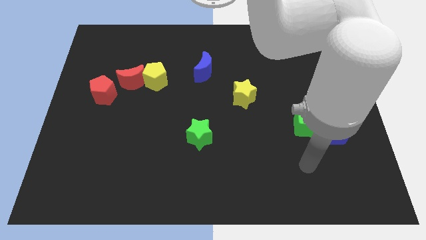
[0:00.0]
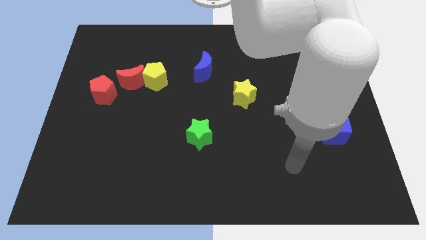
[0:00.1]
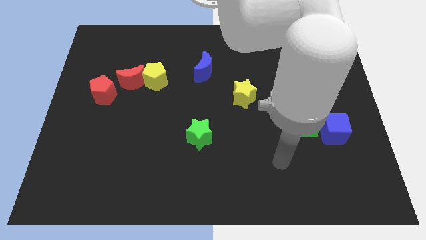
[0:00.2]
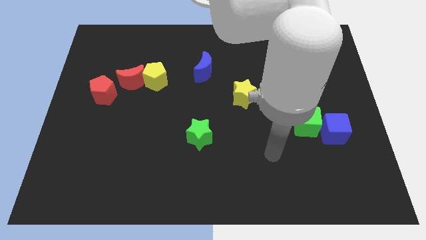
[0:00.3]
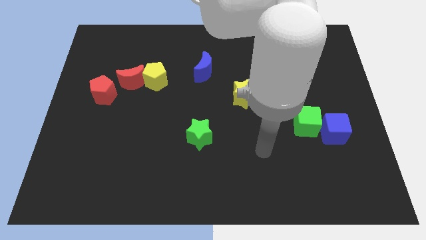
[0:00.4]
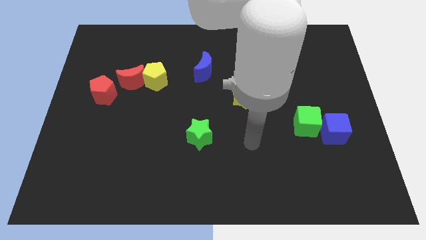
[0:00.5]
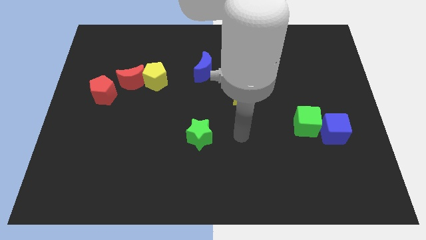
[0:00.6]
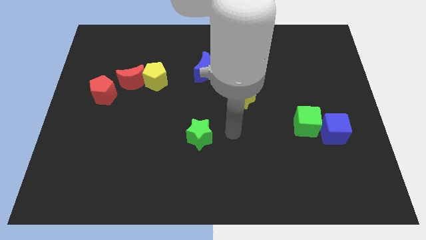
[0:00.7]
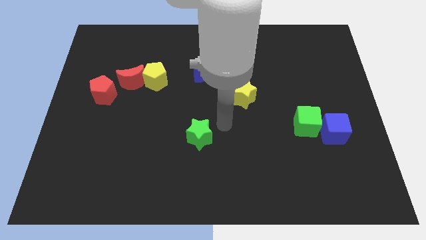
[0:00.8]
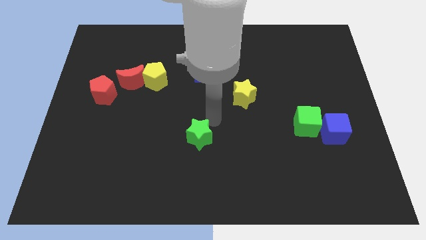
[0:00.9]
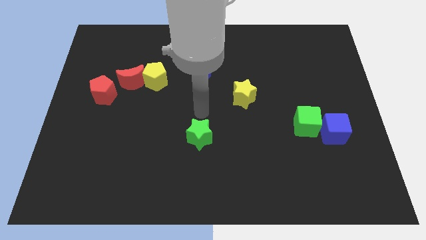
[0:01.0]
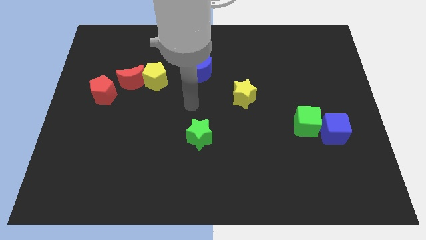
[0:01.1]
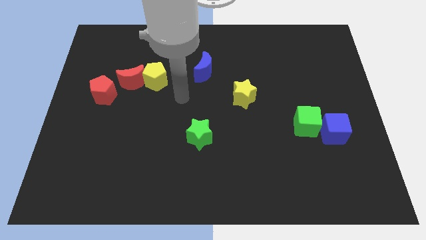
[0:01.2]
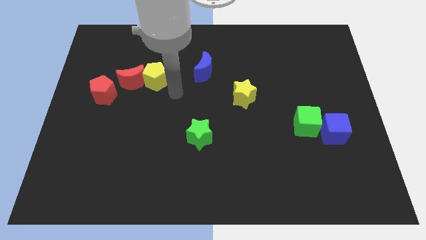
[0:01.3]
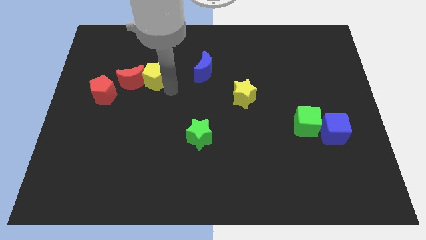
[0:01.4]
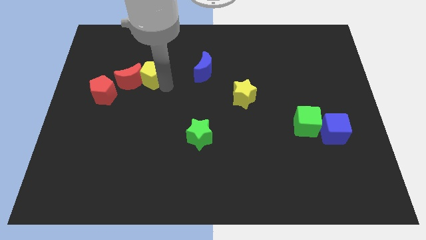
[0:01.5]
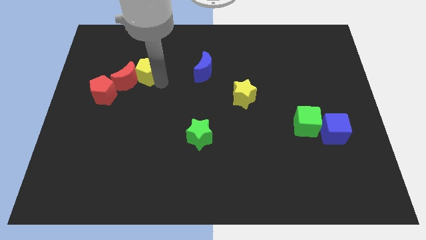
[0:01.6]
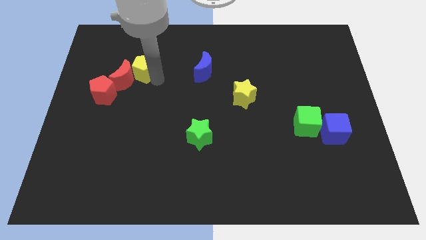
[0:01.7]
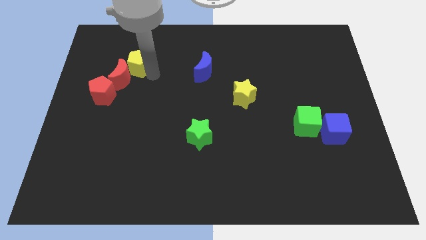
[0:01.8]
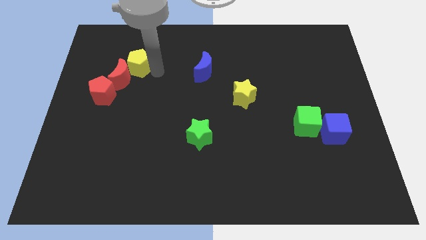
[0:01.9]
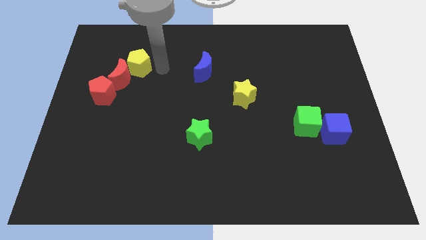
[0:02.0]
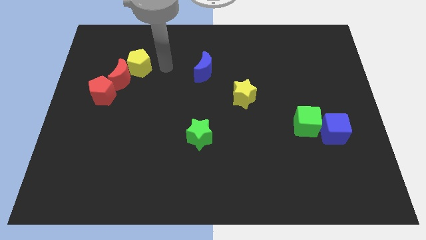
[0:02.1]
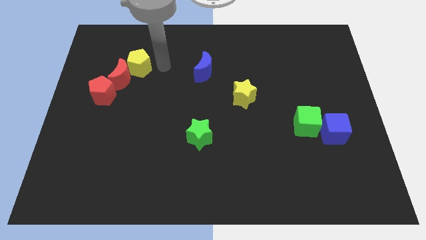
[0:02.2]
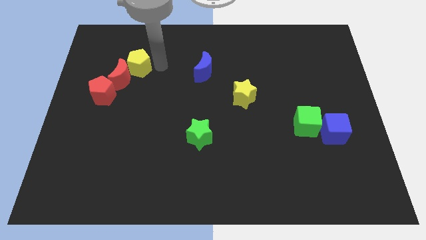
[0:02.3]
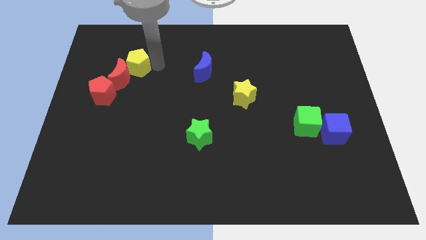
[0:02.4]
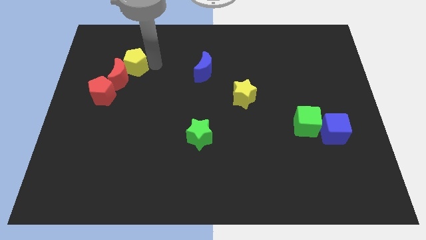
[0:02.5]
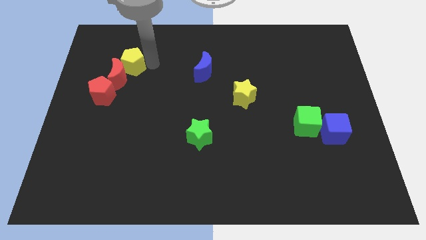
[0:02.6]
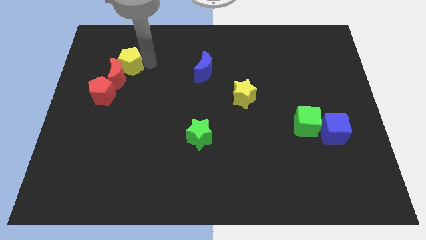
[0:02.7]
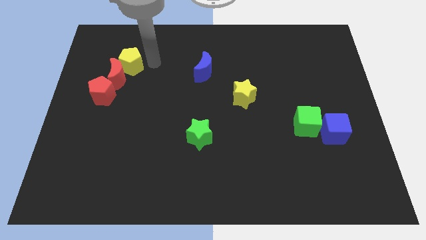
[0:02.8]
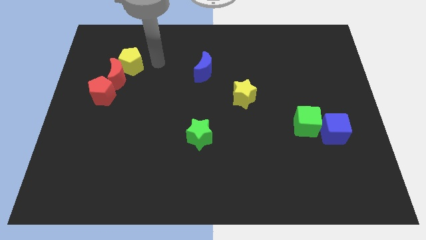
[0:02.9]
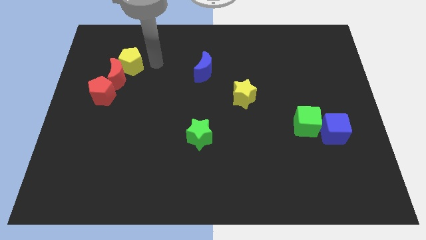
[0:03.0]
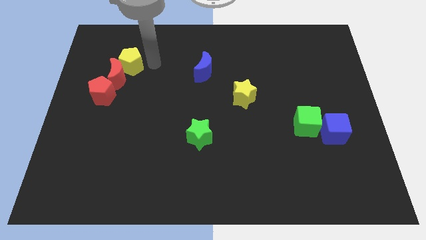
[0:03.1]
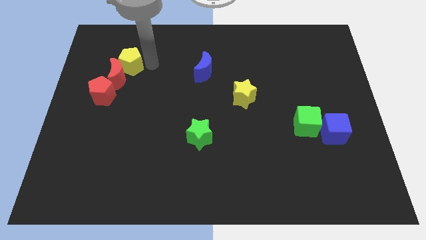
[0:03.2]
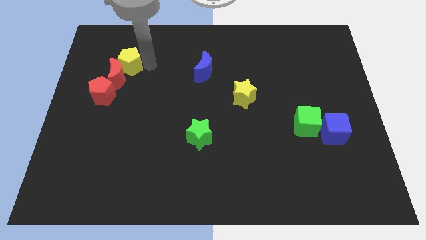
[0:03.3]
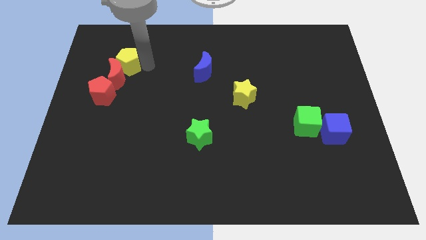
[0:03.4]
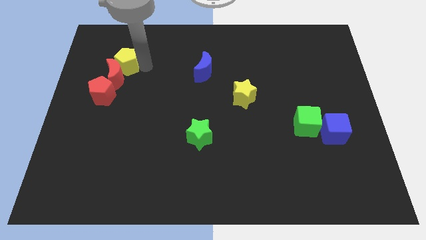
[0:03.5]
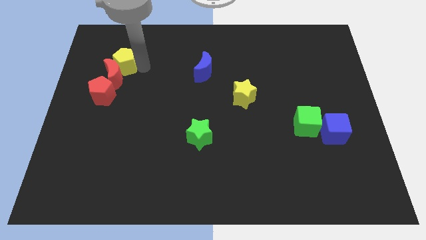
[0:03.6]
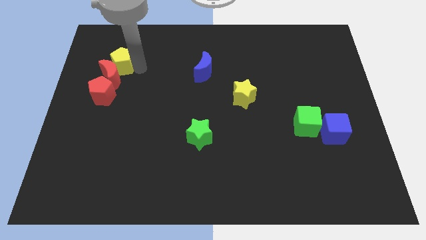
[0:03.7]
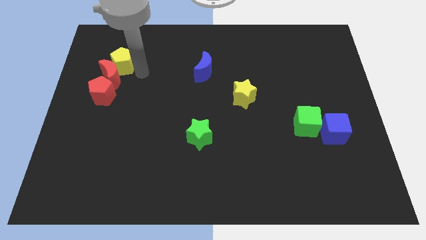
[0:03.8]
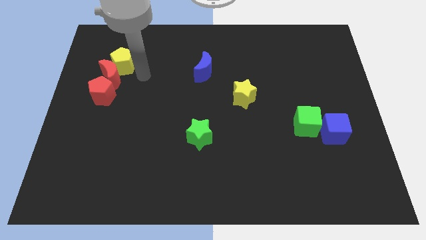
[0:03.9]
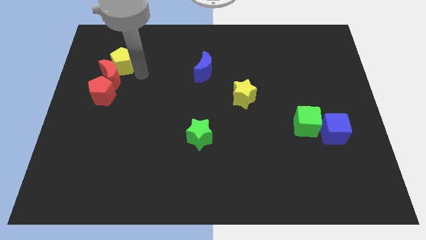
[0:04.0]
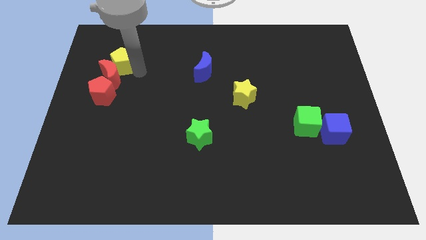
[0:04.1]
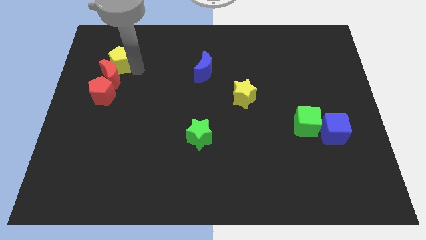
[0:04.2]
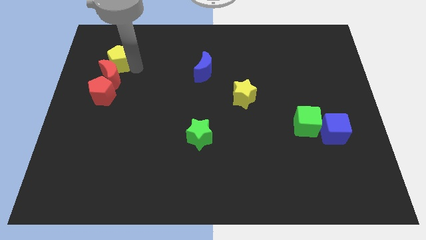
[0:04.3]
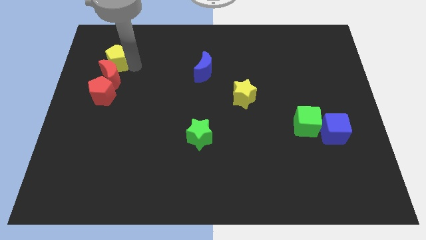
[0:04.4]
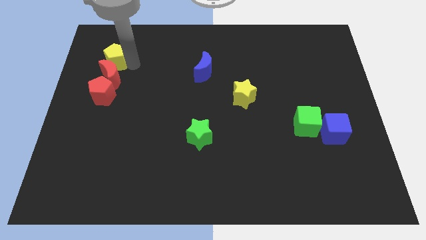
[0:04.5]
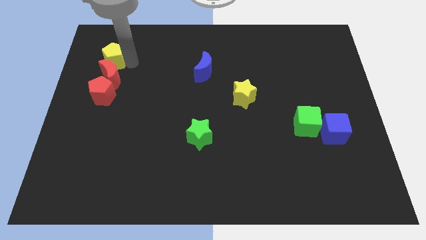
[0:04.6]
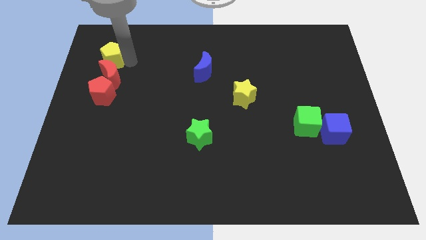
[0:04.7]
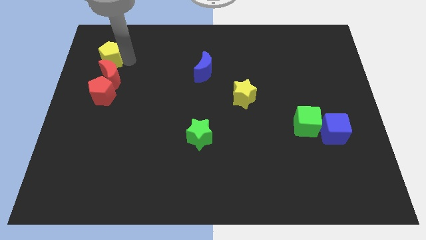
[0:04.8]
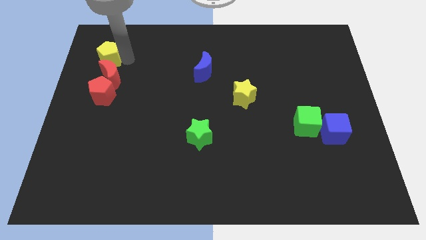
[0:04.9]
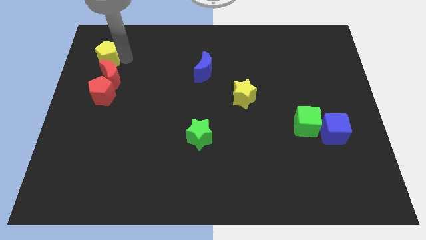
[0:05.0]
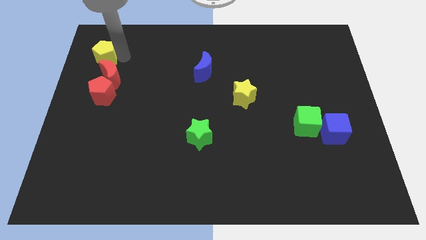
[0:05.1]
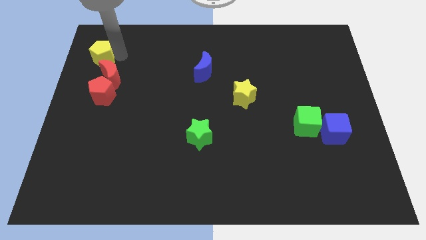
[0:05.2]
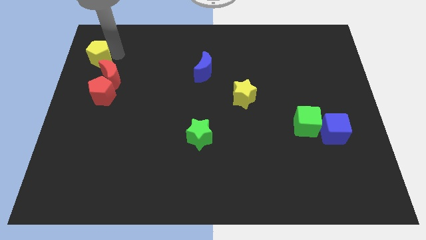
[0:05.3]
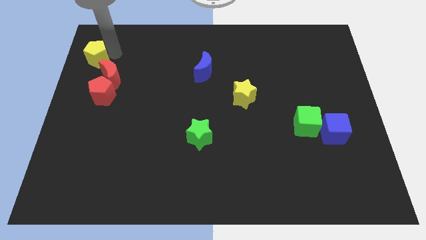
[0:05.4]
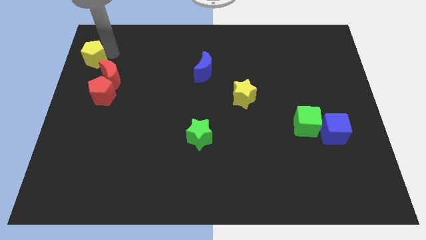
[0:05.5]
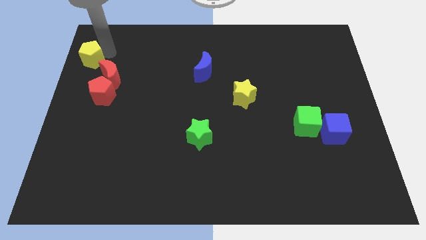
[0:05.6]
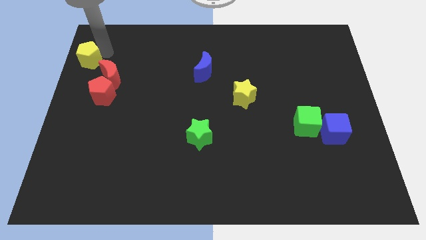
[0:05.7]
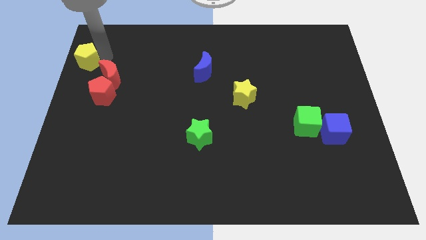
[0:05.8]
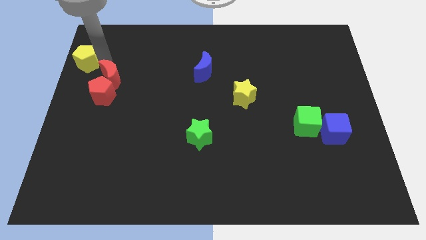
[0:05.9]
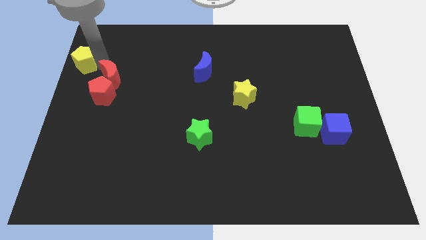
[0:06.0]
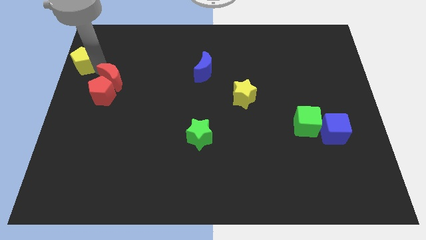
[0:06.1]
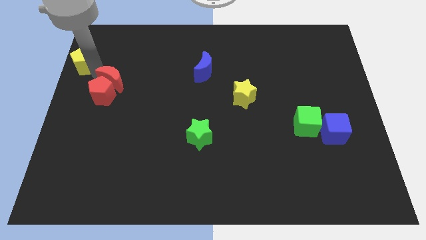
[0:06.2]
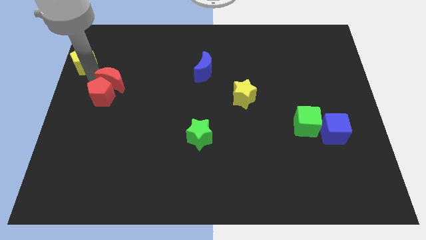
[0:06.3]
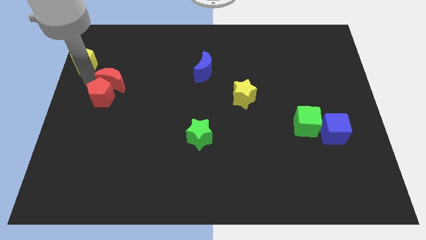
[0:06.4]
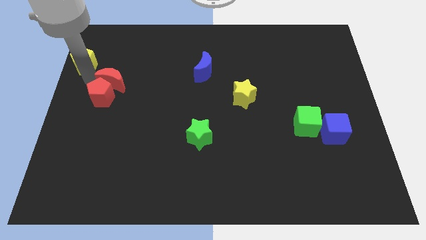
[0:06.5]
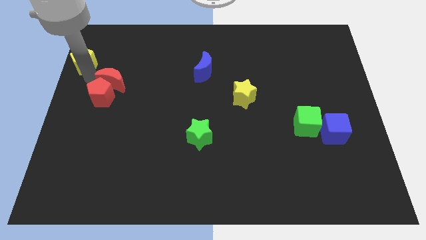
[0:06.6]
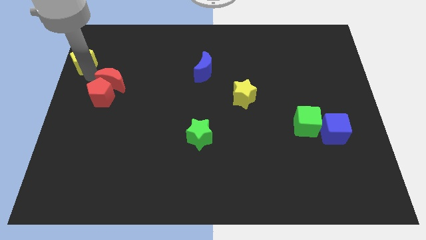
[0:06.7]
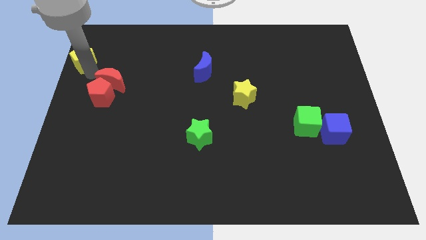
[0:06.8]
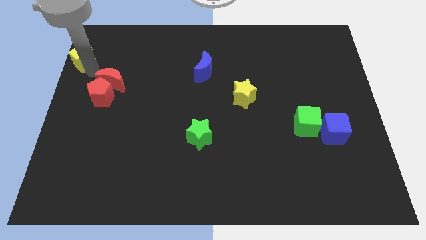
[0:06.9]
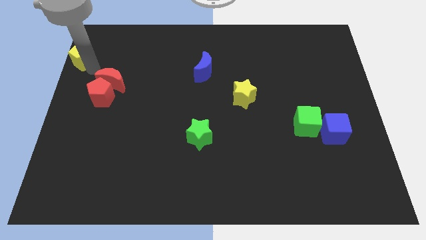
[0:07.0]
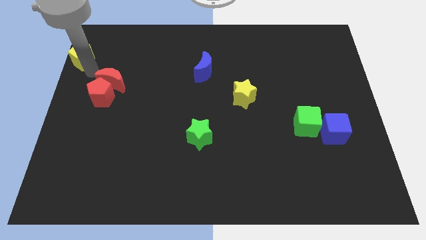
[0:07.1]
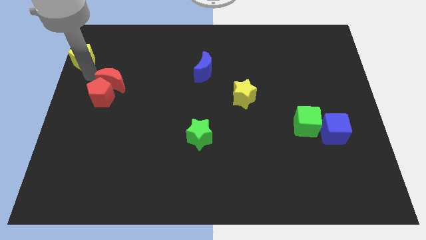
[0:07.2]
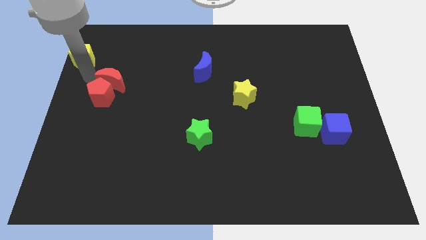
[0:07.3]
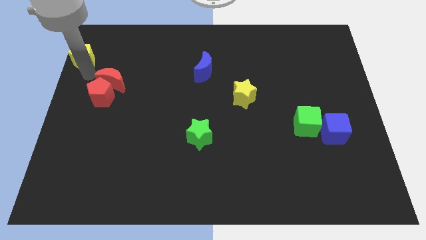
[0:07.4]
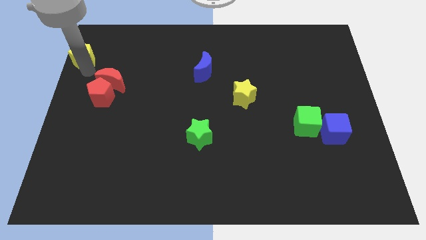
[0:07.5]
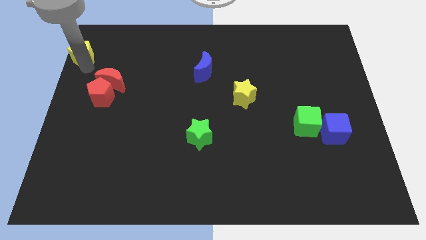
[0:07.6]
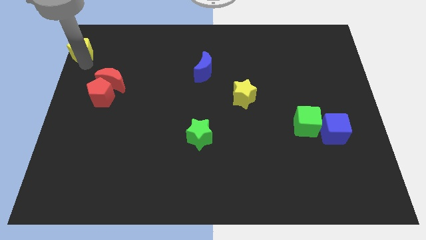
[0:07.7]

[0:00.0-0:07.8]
push the yellow pentagon to the top left of the board
